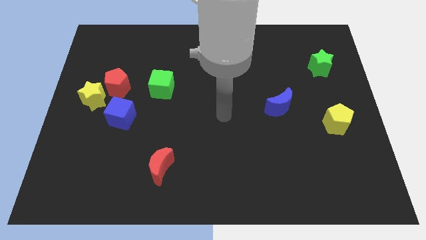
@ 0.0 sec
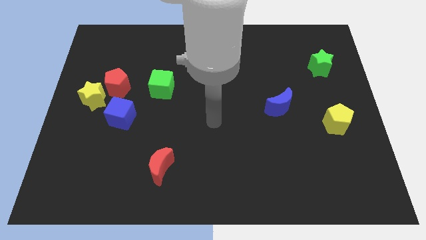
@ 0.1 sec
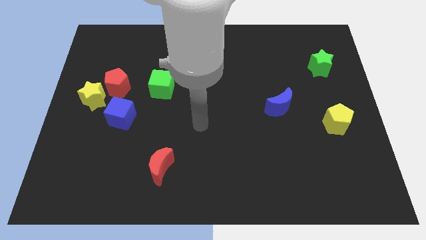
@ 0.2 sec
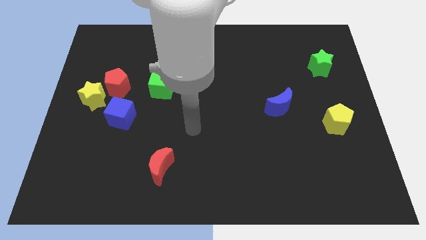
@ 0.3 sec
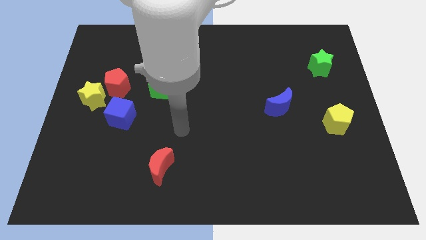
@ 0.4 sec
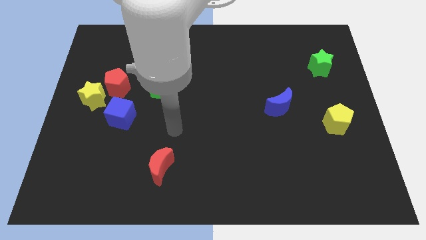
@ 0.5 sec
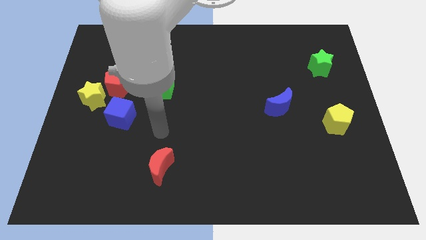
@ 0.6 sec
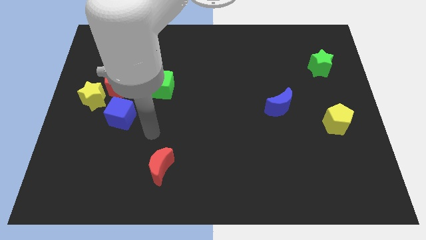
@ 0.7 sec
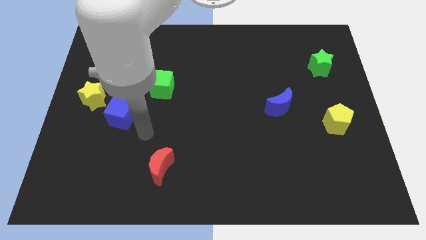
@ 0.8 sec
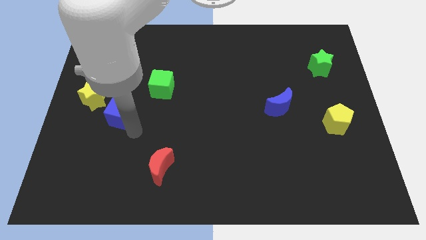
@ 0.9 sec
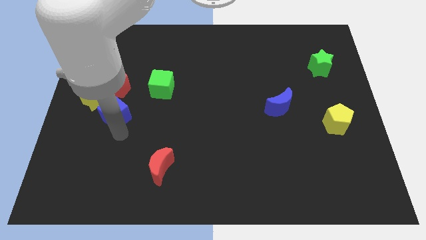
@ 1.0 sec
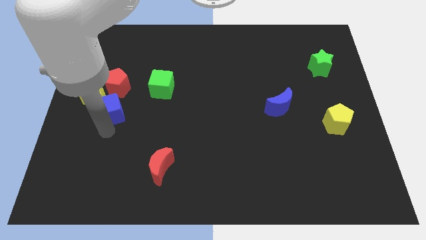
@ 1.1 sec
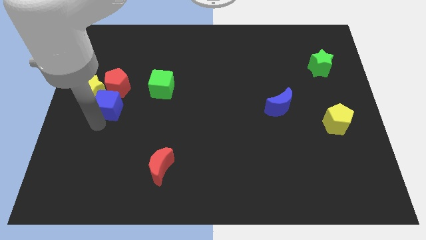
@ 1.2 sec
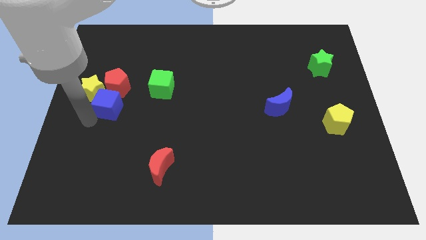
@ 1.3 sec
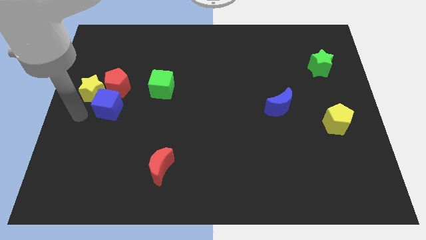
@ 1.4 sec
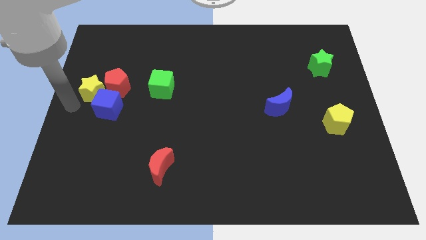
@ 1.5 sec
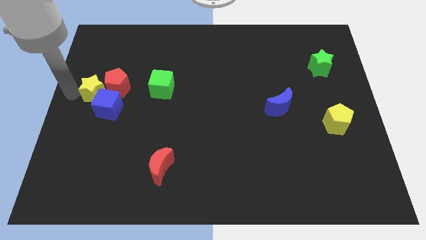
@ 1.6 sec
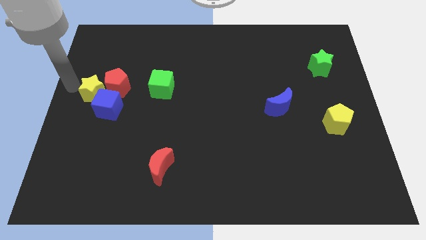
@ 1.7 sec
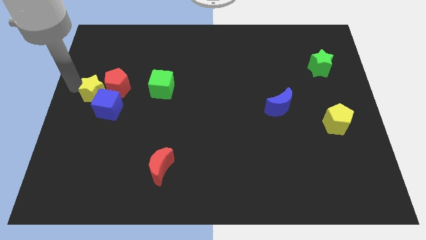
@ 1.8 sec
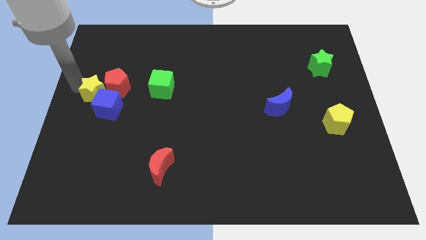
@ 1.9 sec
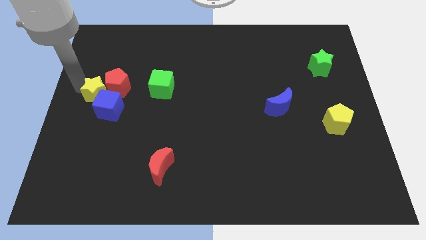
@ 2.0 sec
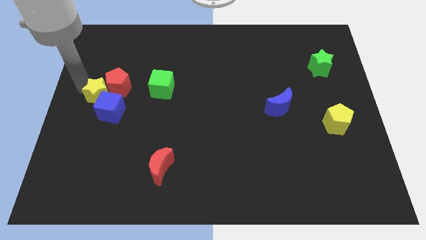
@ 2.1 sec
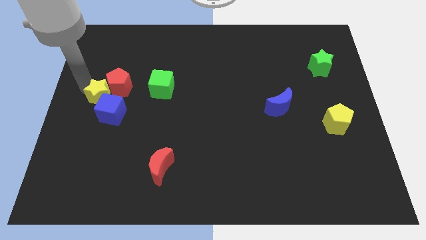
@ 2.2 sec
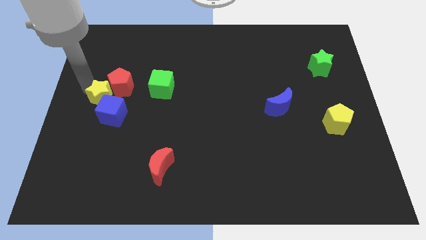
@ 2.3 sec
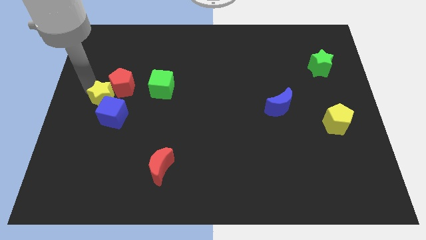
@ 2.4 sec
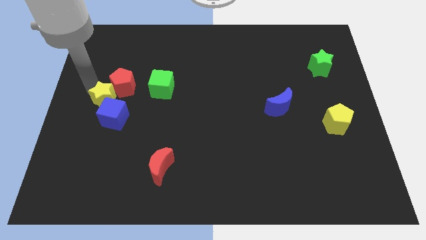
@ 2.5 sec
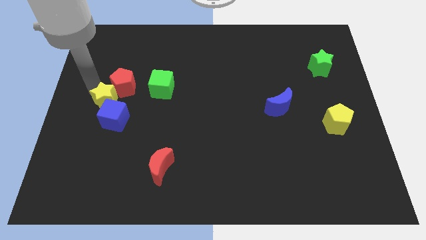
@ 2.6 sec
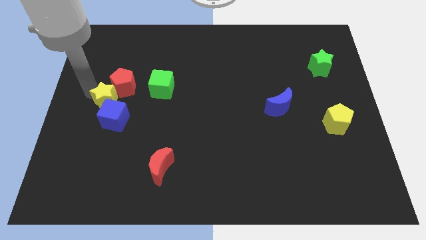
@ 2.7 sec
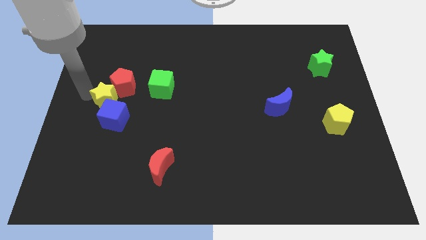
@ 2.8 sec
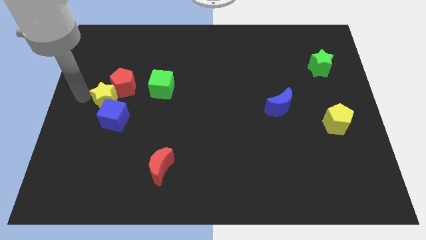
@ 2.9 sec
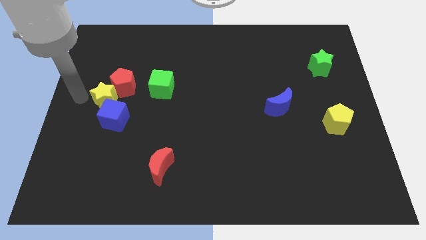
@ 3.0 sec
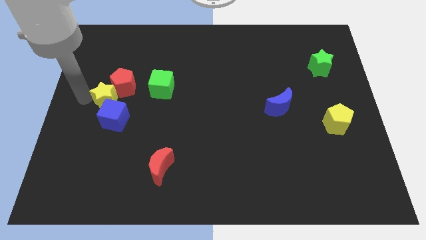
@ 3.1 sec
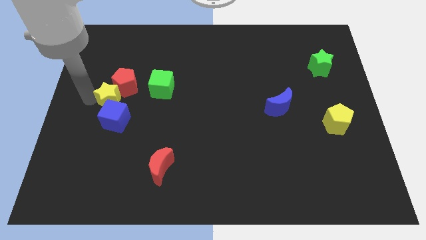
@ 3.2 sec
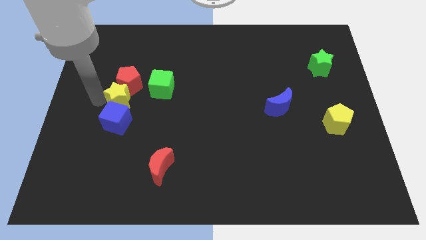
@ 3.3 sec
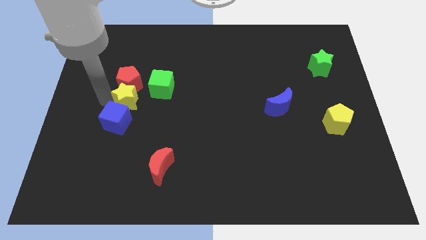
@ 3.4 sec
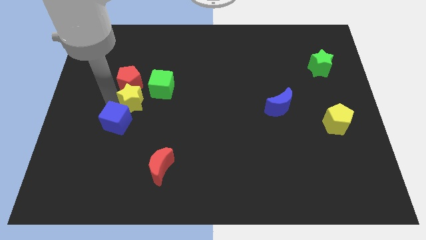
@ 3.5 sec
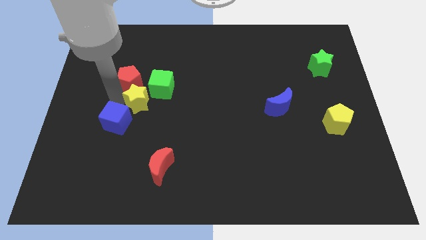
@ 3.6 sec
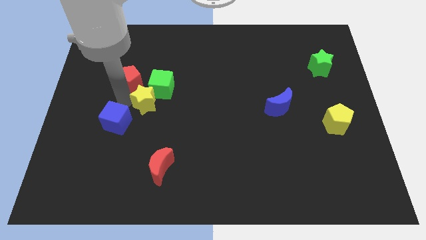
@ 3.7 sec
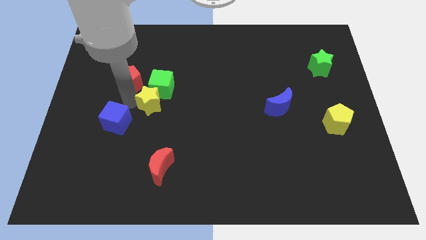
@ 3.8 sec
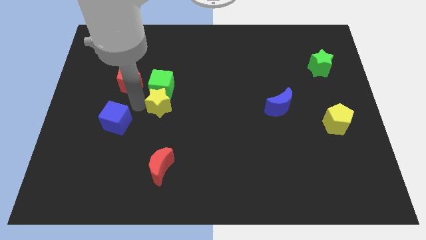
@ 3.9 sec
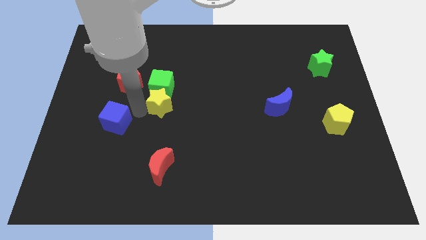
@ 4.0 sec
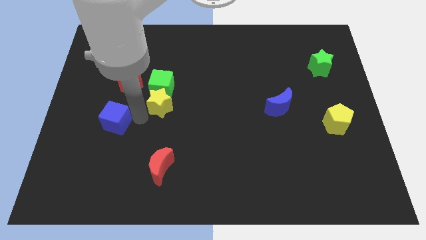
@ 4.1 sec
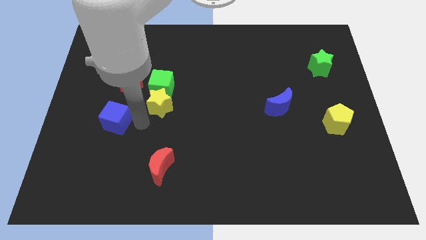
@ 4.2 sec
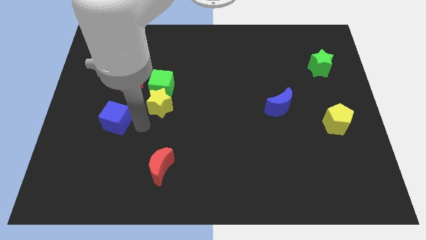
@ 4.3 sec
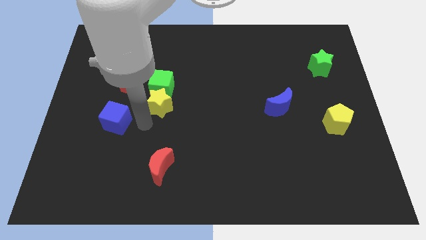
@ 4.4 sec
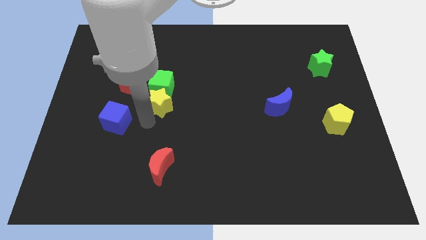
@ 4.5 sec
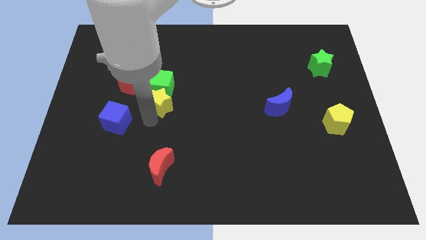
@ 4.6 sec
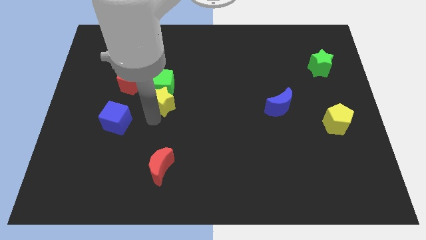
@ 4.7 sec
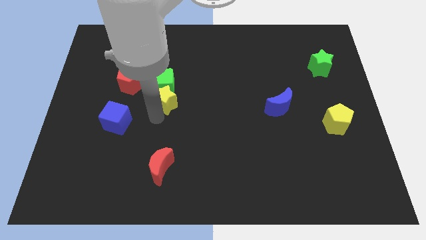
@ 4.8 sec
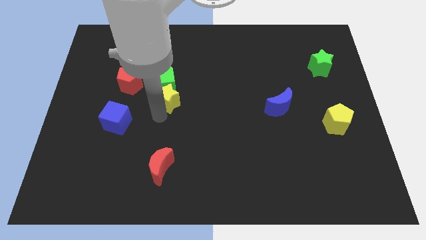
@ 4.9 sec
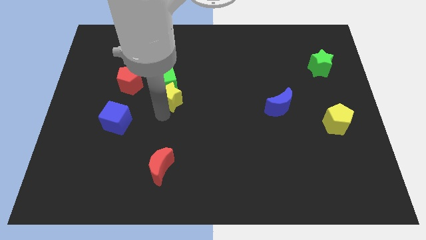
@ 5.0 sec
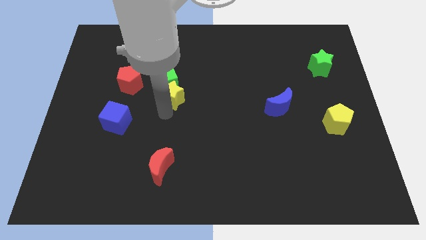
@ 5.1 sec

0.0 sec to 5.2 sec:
put the yellow star just right of the red pentagon

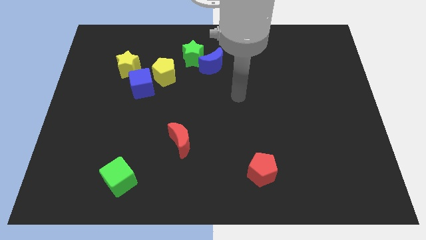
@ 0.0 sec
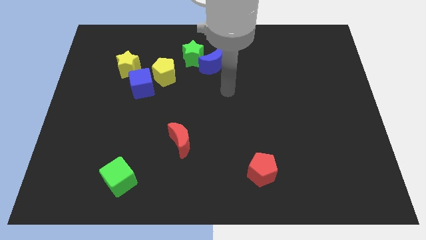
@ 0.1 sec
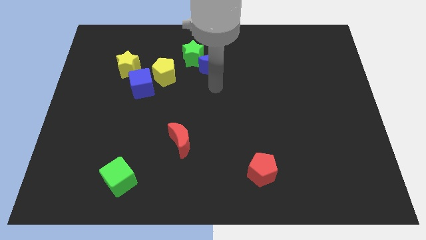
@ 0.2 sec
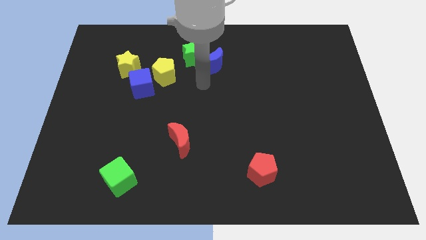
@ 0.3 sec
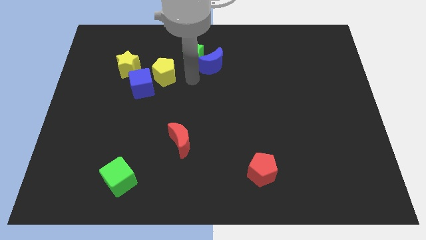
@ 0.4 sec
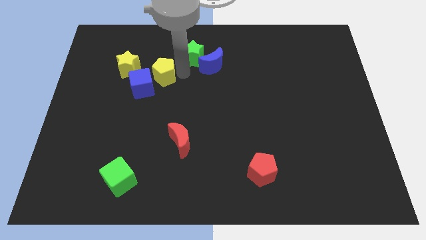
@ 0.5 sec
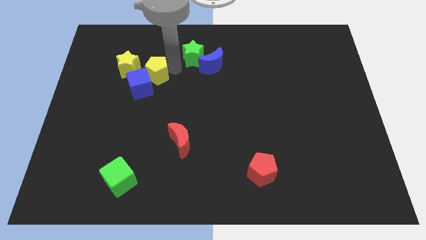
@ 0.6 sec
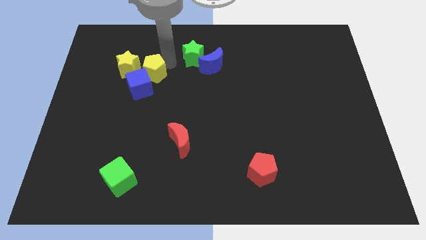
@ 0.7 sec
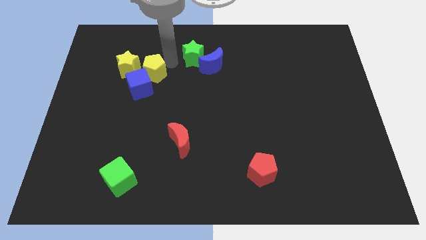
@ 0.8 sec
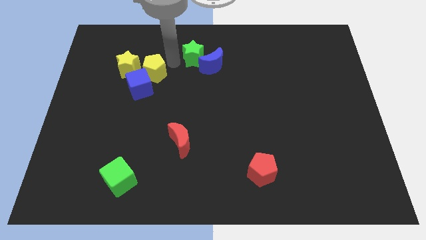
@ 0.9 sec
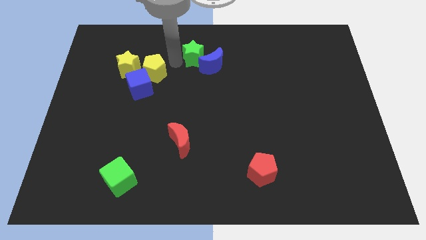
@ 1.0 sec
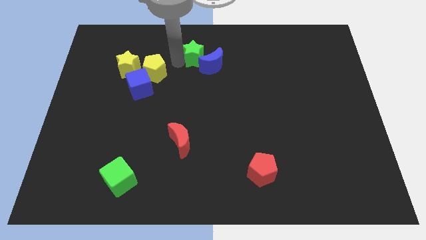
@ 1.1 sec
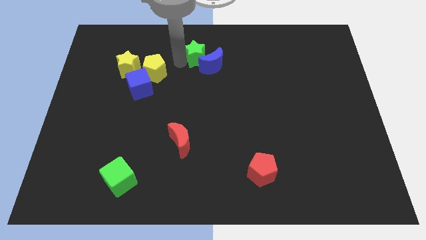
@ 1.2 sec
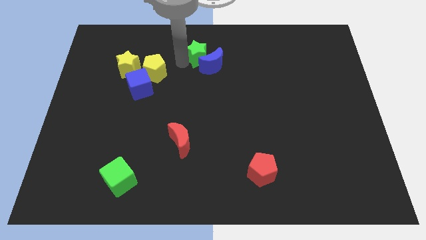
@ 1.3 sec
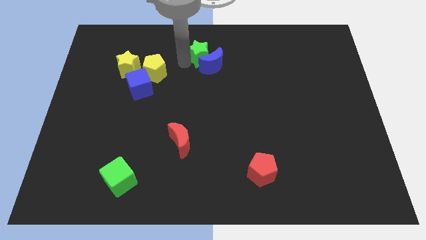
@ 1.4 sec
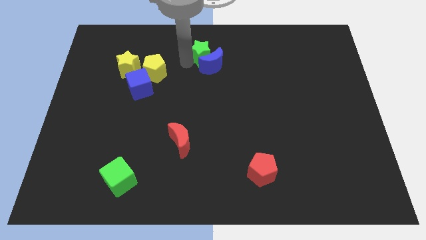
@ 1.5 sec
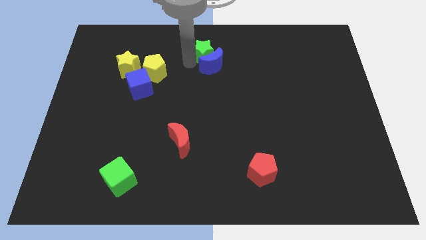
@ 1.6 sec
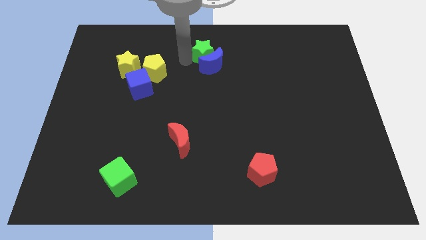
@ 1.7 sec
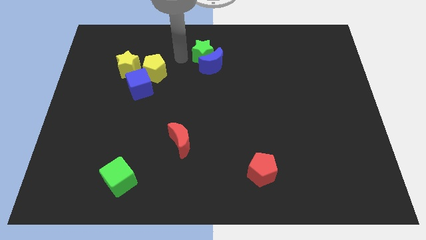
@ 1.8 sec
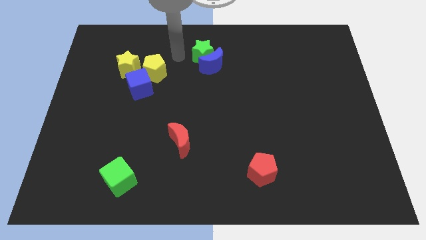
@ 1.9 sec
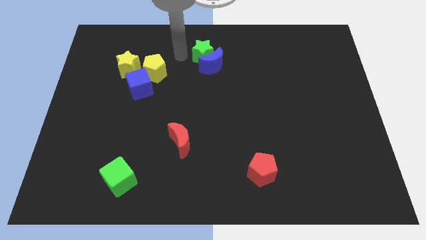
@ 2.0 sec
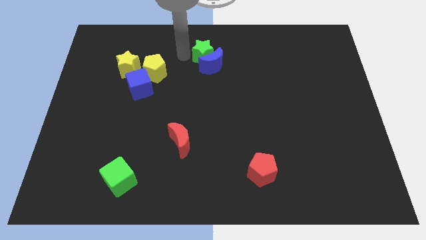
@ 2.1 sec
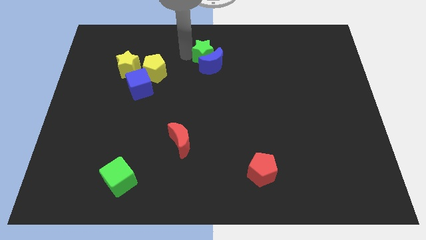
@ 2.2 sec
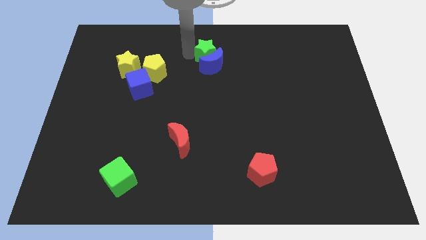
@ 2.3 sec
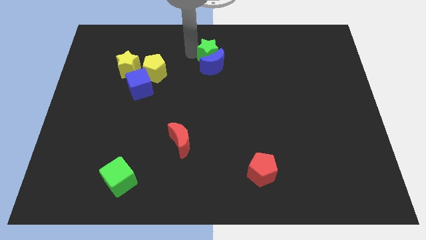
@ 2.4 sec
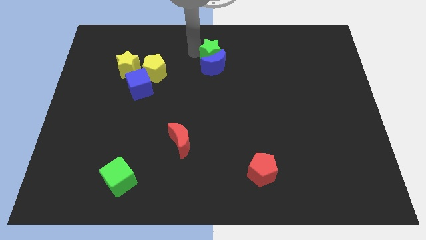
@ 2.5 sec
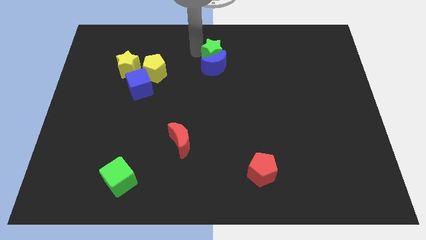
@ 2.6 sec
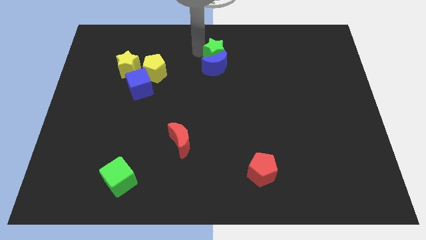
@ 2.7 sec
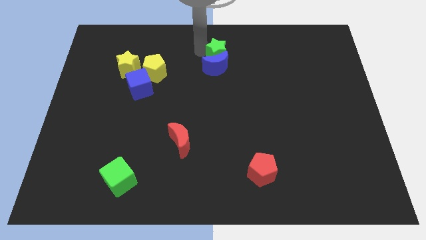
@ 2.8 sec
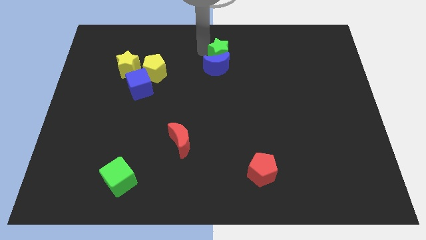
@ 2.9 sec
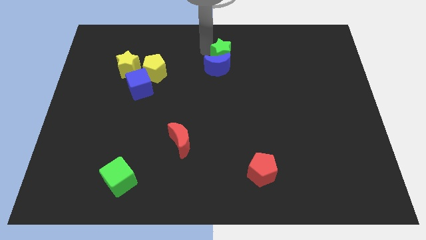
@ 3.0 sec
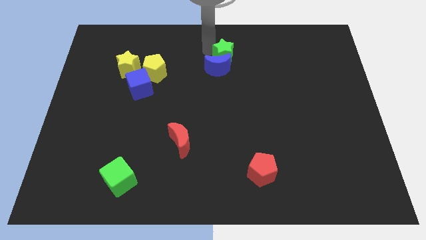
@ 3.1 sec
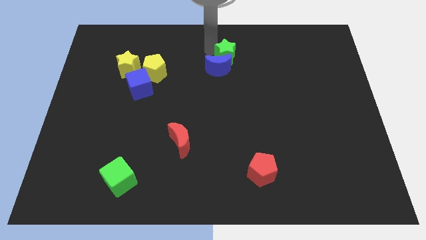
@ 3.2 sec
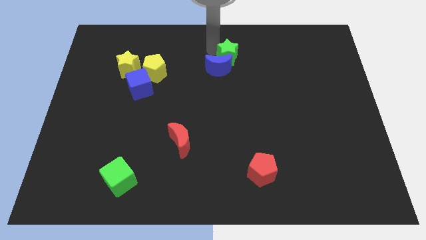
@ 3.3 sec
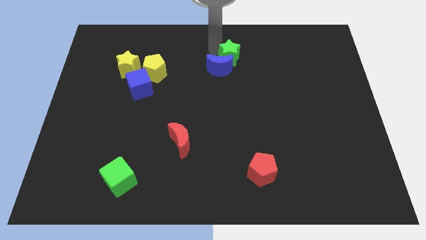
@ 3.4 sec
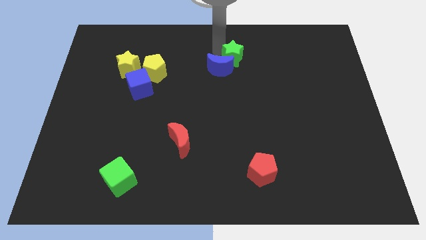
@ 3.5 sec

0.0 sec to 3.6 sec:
put the green star to the right of the blue moon
